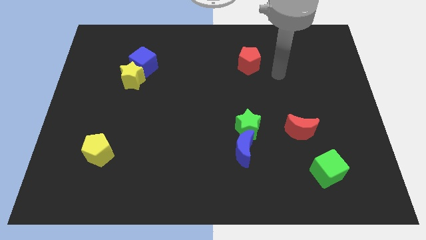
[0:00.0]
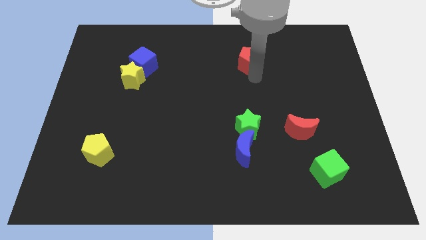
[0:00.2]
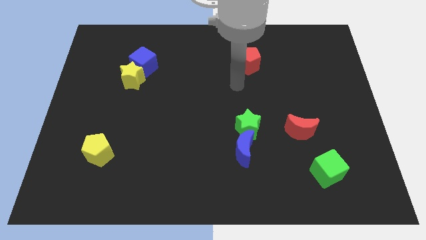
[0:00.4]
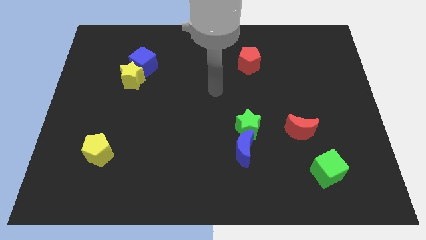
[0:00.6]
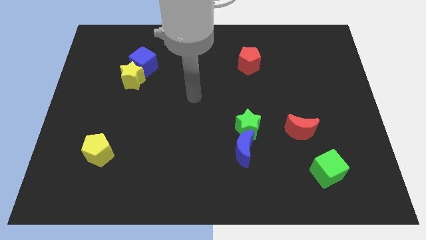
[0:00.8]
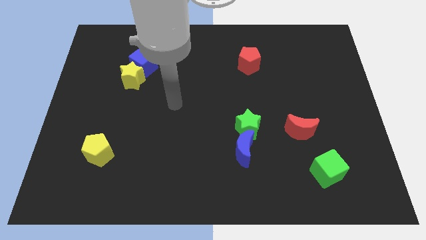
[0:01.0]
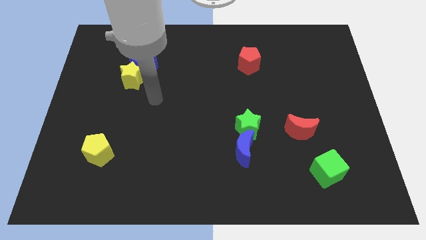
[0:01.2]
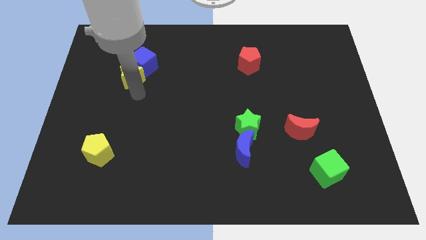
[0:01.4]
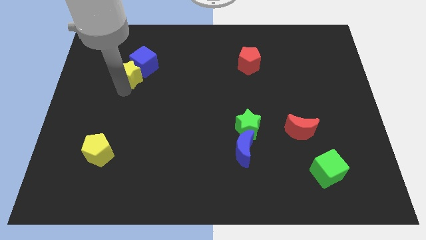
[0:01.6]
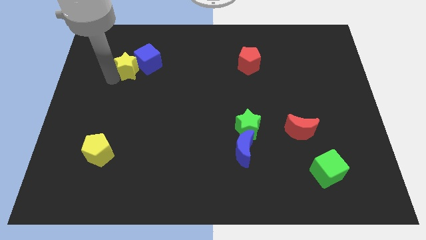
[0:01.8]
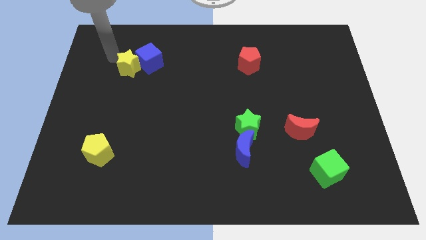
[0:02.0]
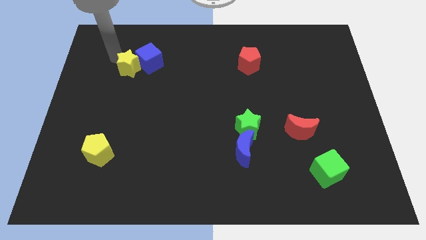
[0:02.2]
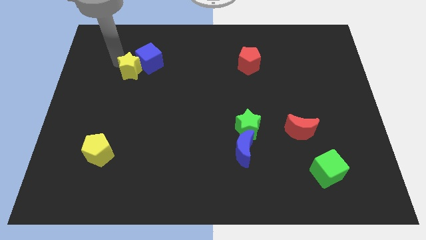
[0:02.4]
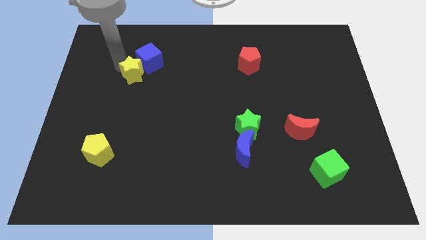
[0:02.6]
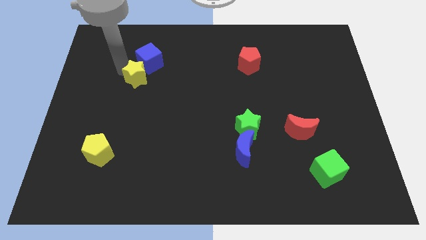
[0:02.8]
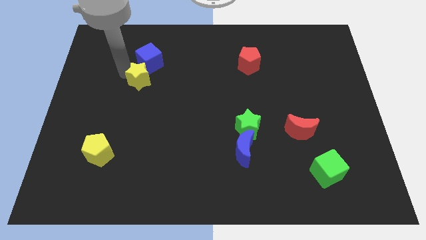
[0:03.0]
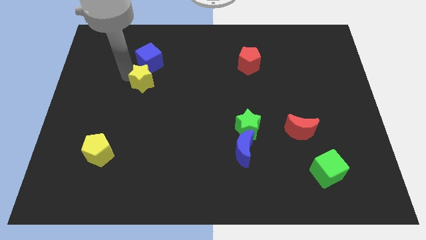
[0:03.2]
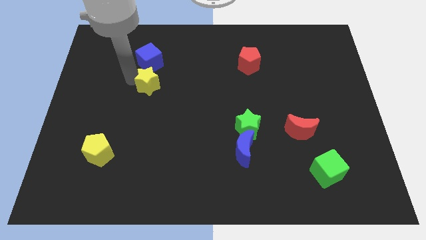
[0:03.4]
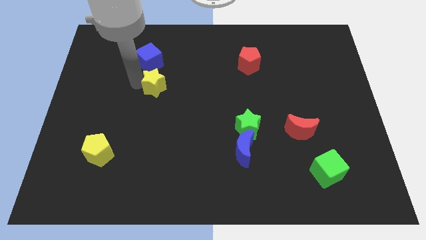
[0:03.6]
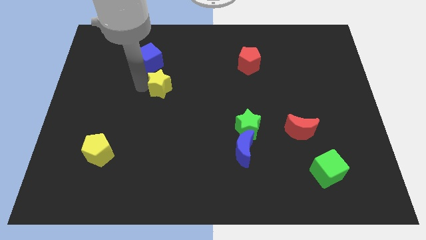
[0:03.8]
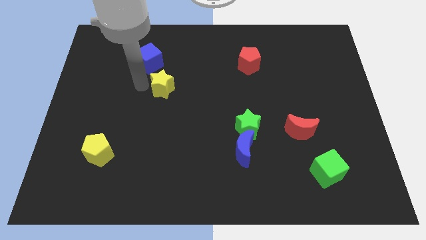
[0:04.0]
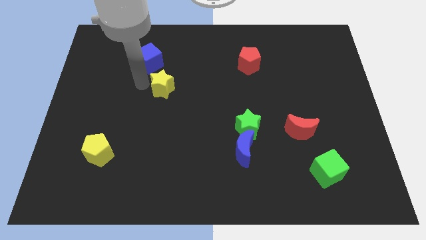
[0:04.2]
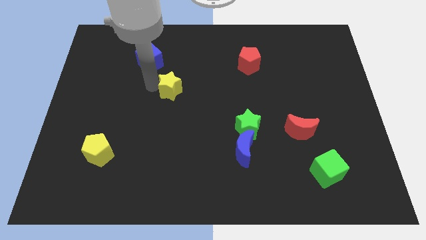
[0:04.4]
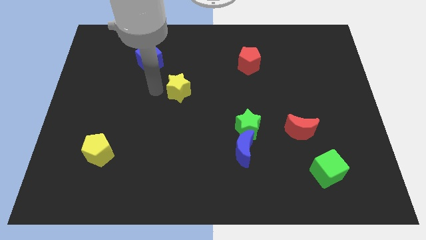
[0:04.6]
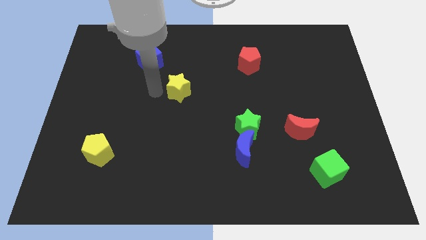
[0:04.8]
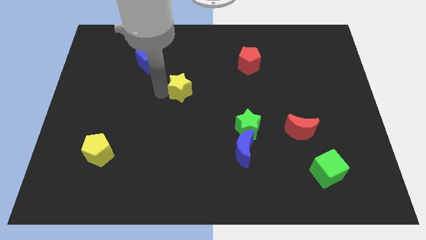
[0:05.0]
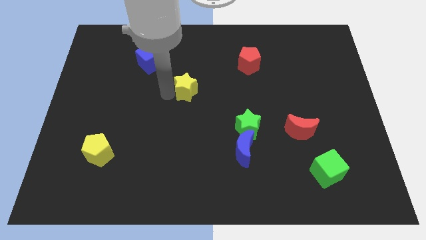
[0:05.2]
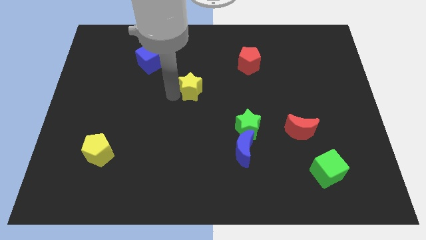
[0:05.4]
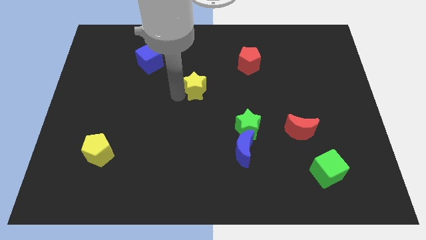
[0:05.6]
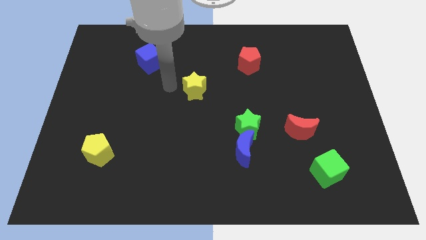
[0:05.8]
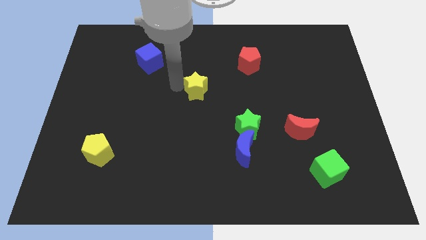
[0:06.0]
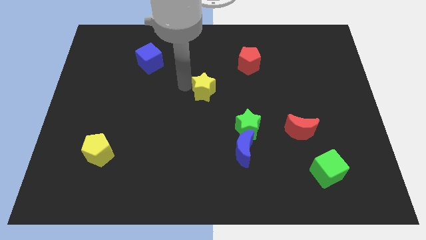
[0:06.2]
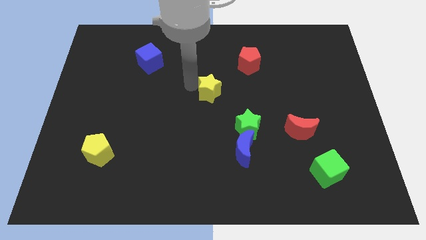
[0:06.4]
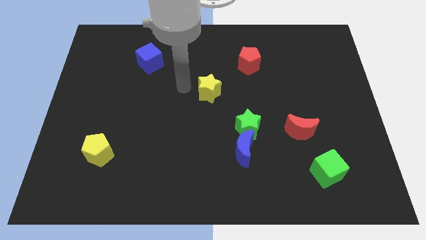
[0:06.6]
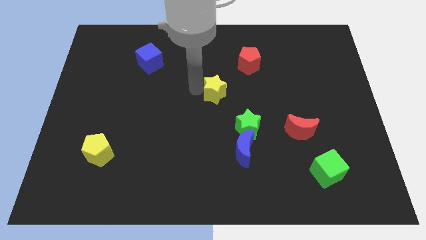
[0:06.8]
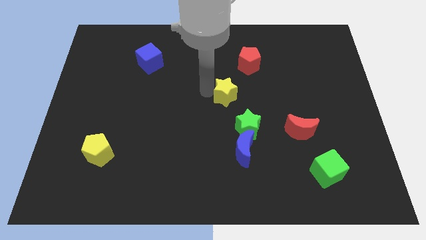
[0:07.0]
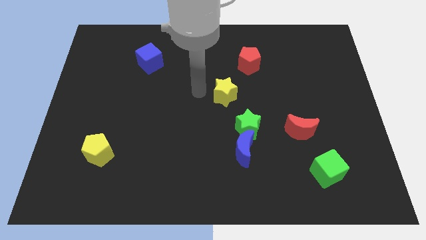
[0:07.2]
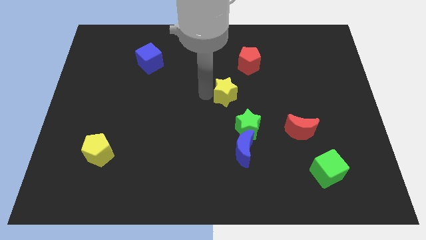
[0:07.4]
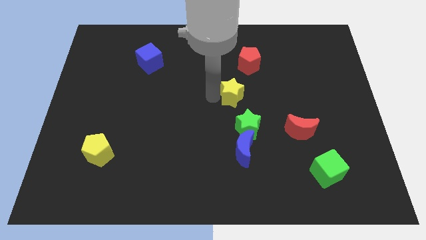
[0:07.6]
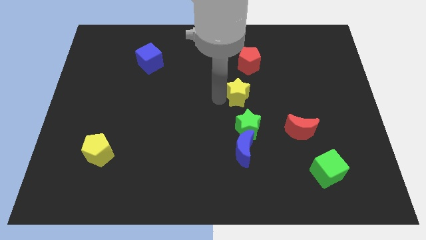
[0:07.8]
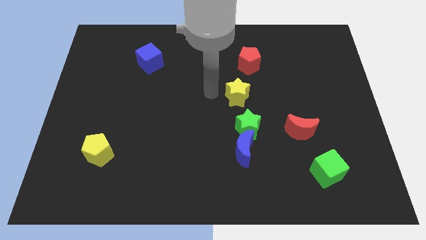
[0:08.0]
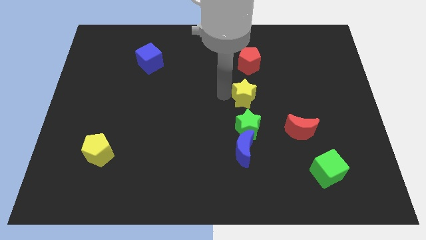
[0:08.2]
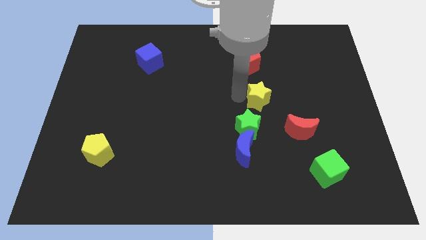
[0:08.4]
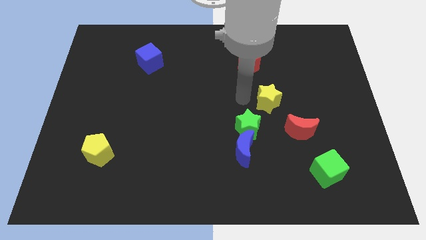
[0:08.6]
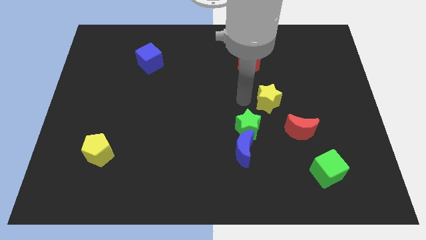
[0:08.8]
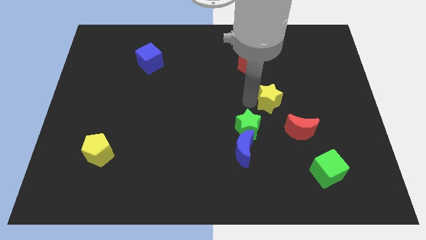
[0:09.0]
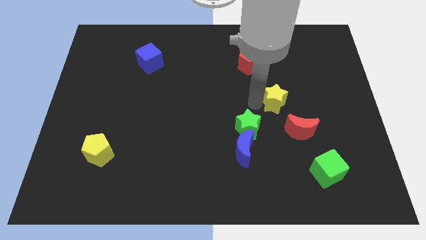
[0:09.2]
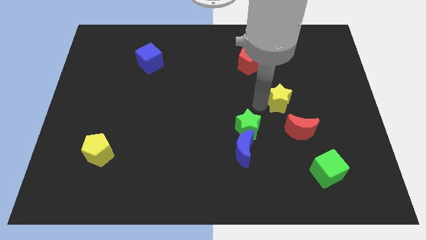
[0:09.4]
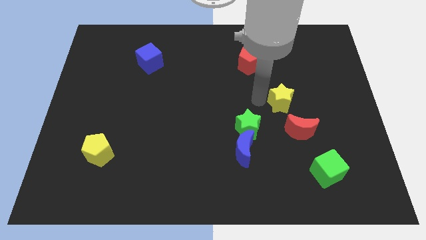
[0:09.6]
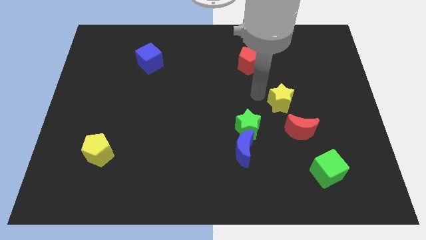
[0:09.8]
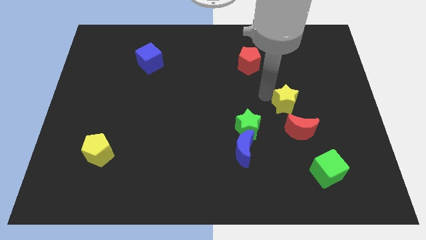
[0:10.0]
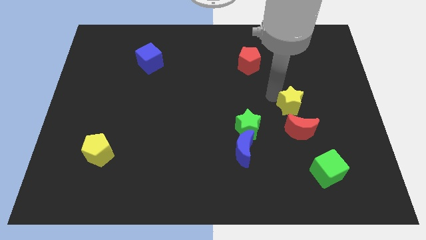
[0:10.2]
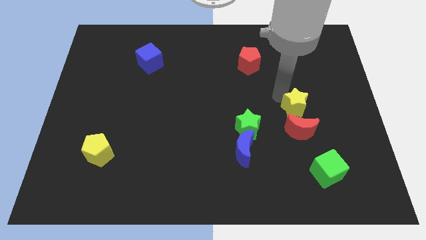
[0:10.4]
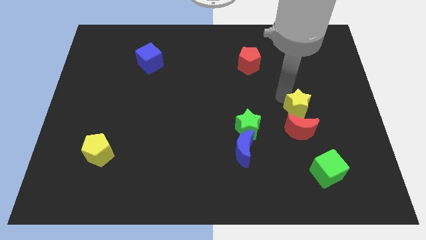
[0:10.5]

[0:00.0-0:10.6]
push the yellow star to the top right of the red moon

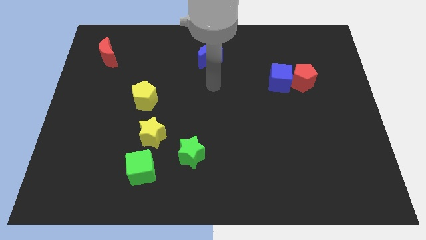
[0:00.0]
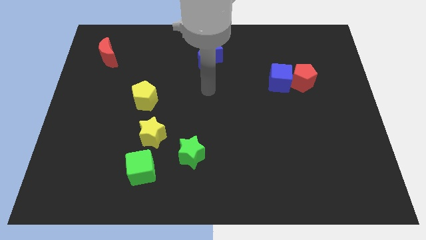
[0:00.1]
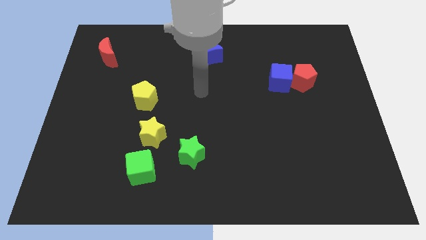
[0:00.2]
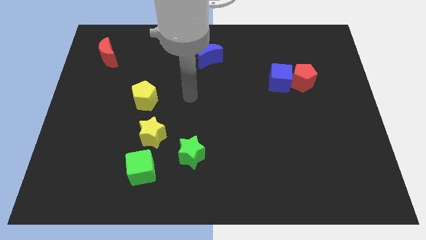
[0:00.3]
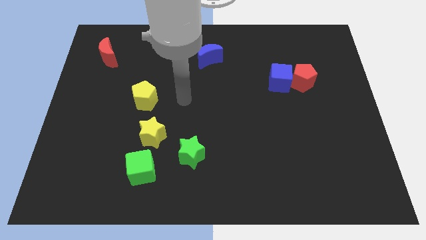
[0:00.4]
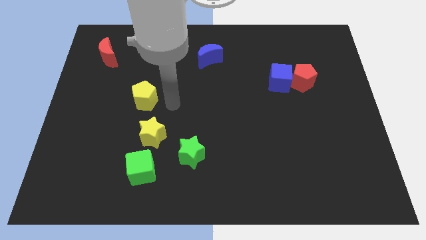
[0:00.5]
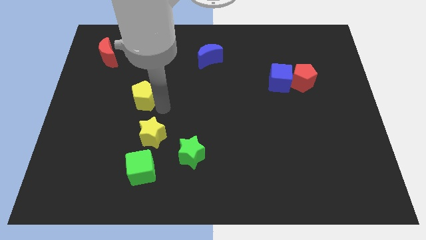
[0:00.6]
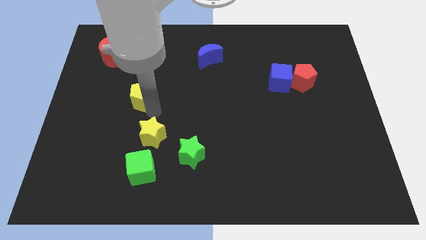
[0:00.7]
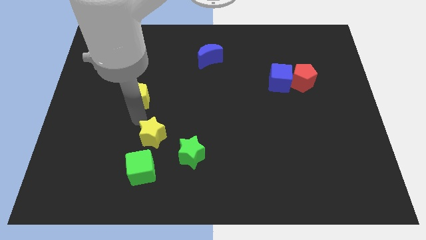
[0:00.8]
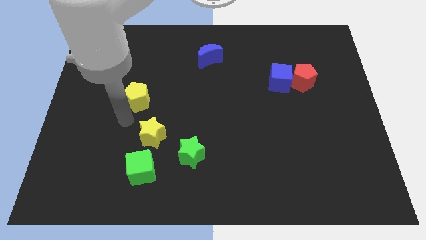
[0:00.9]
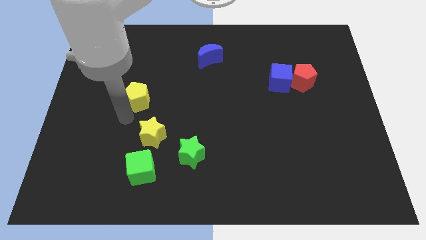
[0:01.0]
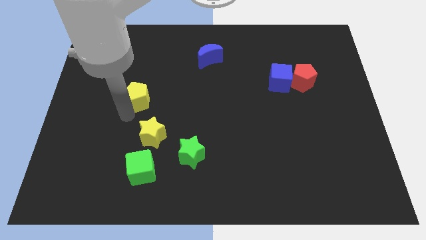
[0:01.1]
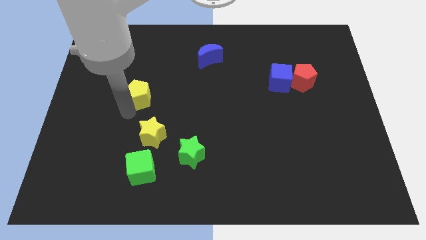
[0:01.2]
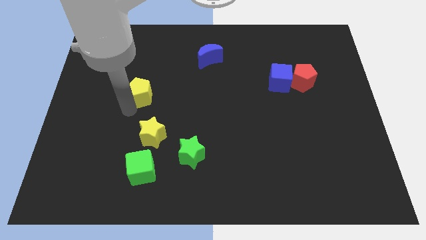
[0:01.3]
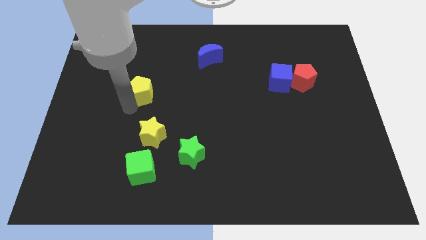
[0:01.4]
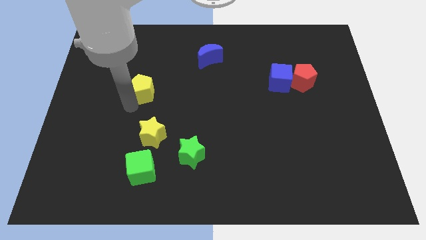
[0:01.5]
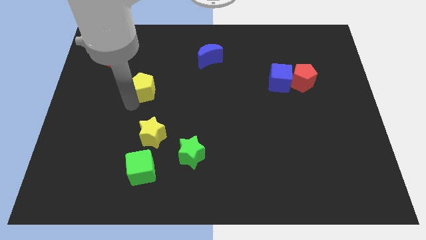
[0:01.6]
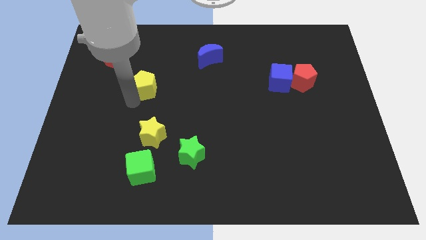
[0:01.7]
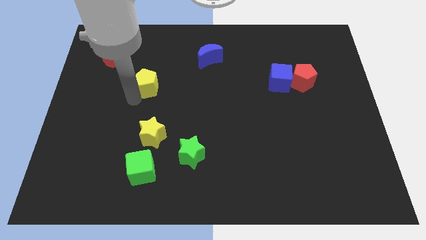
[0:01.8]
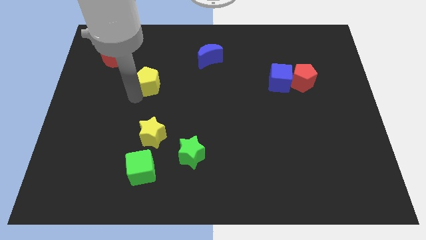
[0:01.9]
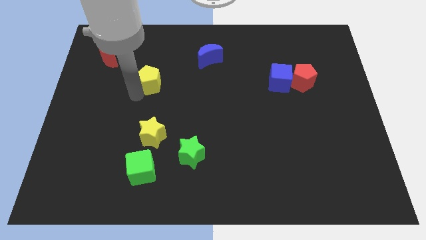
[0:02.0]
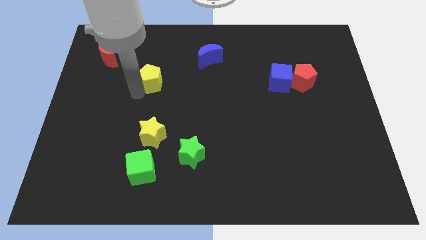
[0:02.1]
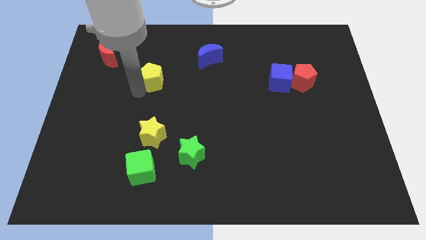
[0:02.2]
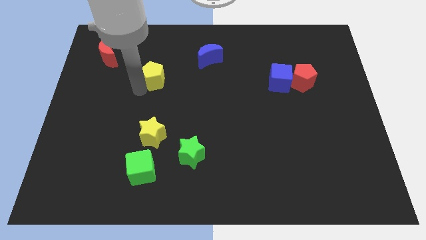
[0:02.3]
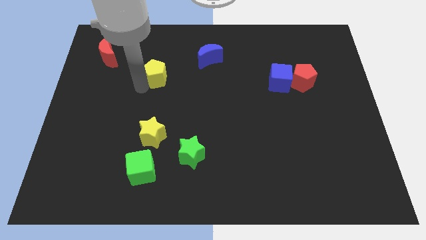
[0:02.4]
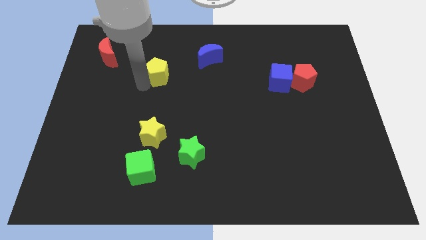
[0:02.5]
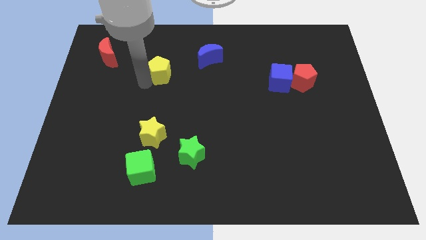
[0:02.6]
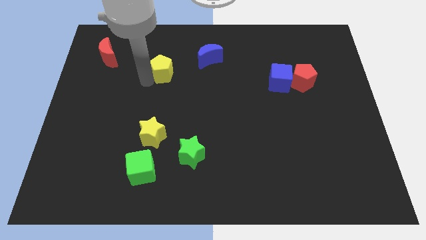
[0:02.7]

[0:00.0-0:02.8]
put the yellow pentagon just left of the blue moon
